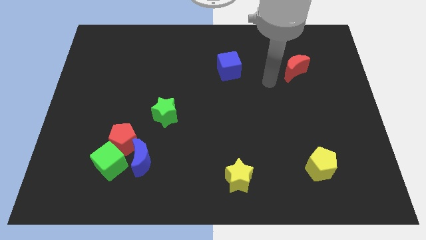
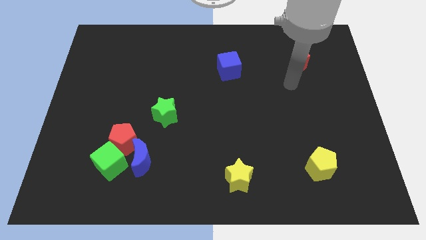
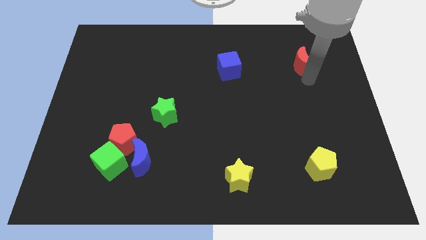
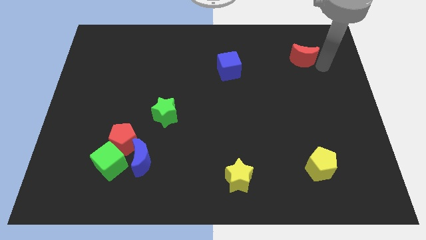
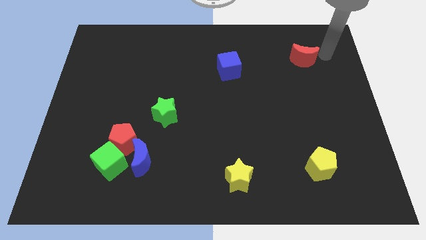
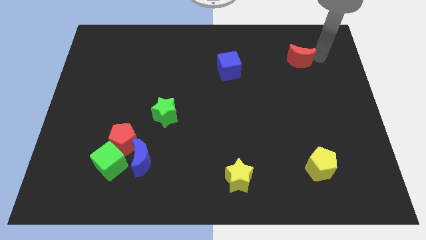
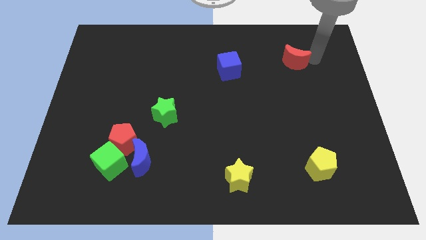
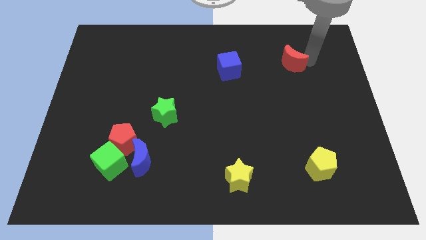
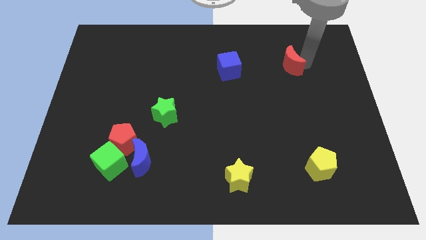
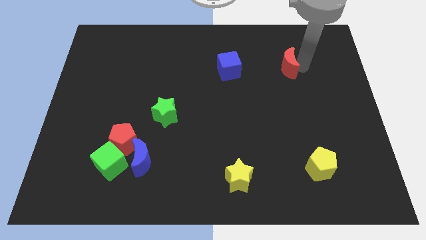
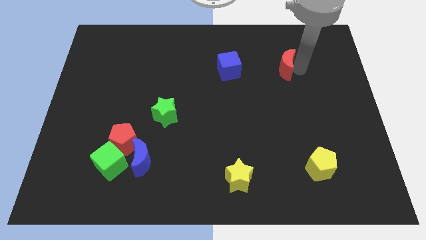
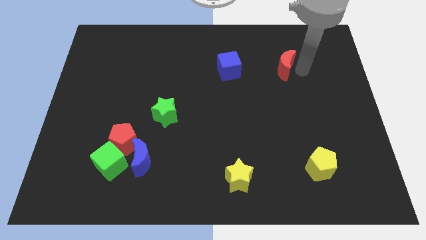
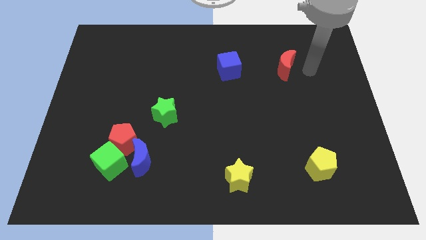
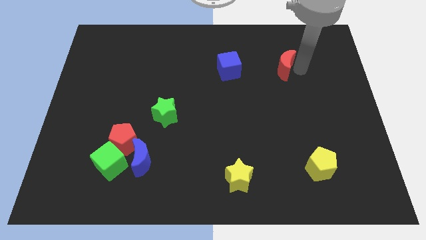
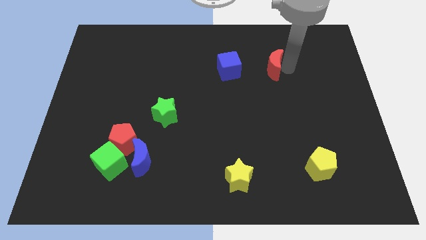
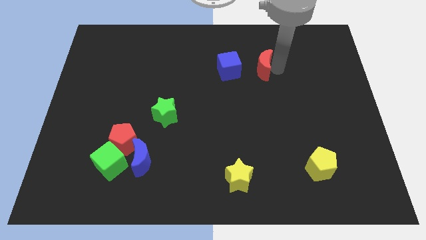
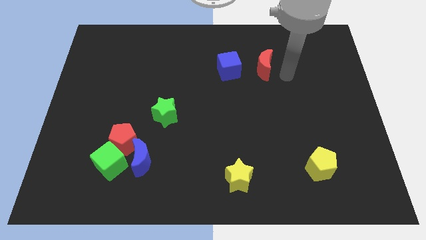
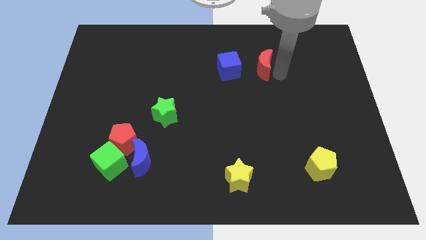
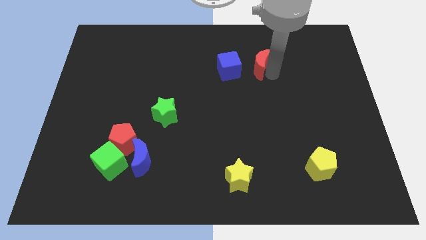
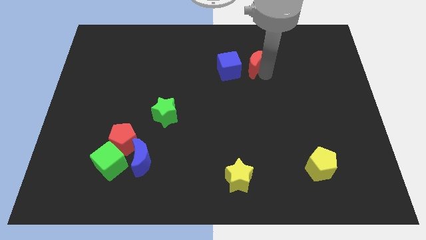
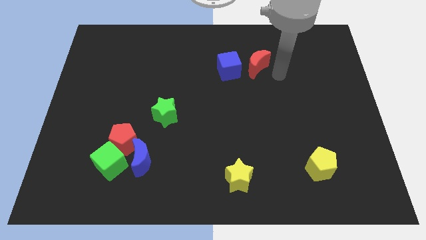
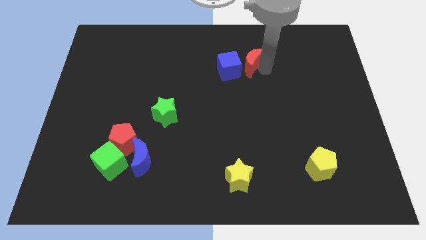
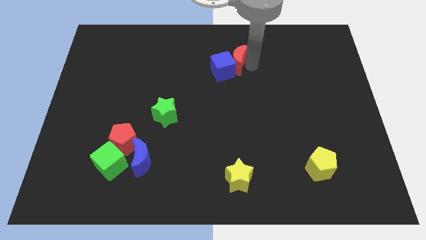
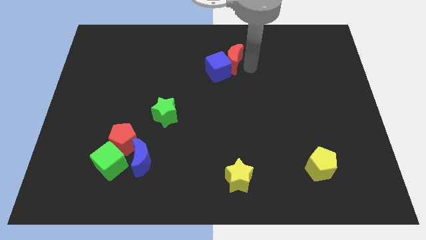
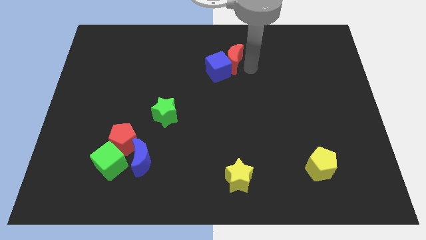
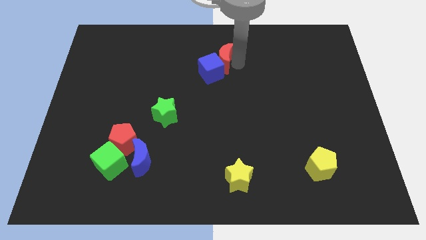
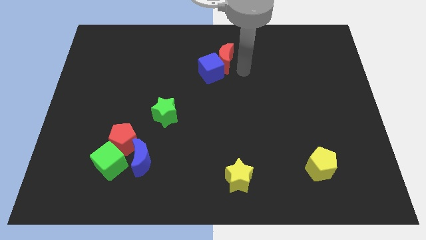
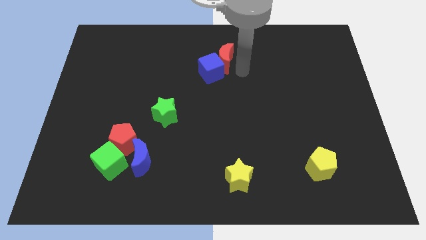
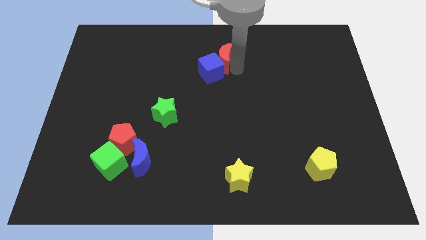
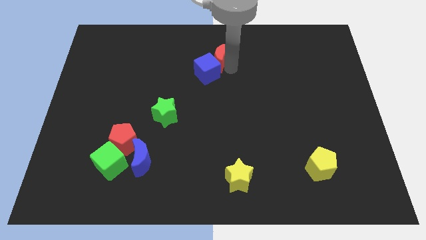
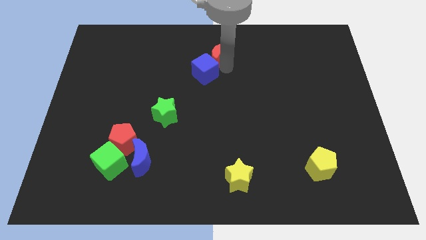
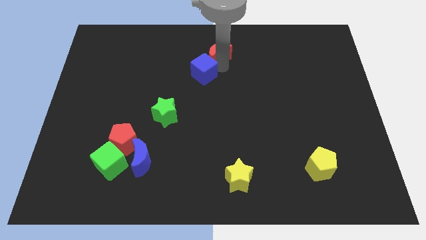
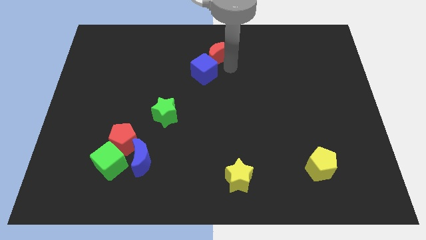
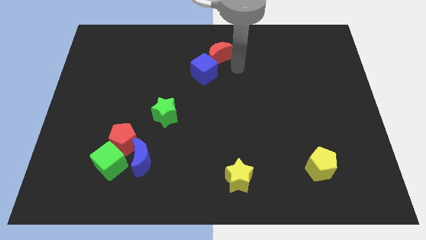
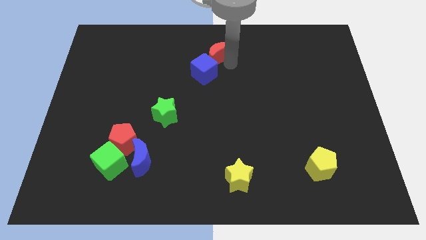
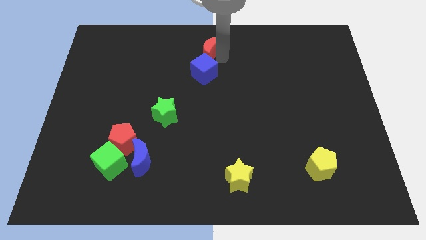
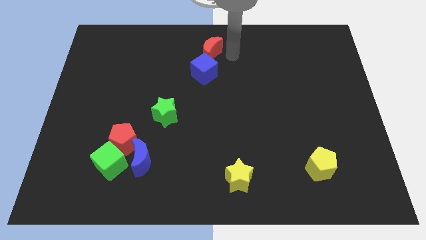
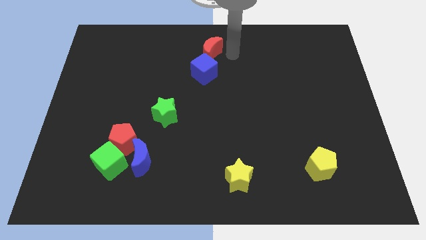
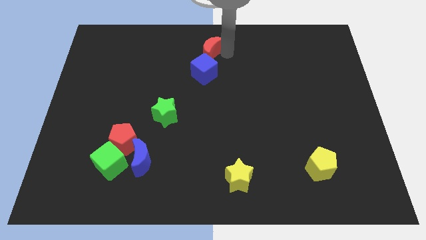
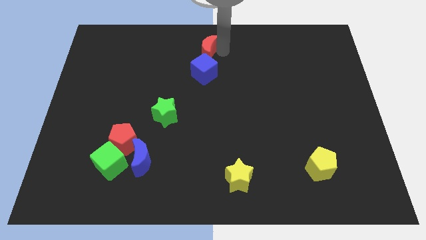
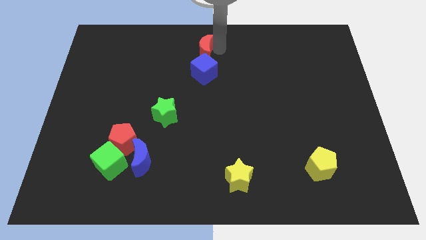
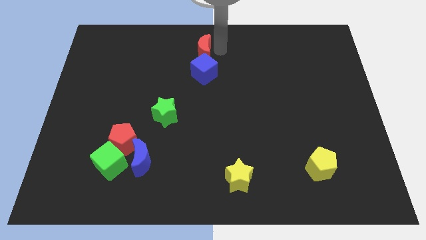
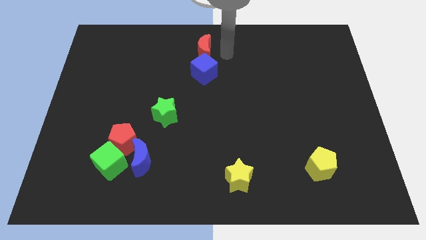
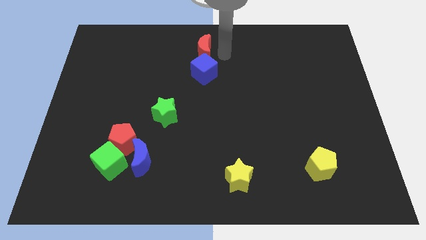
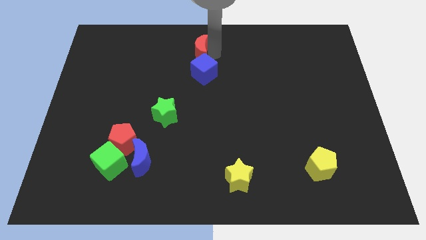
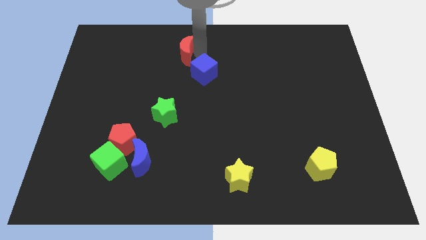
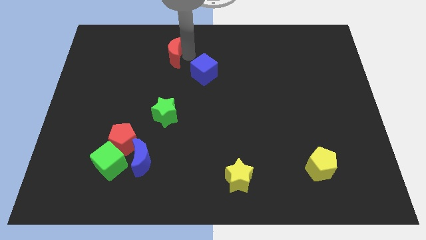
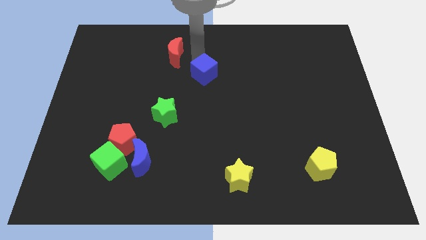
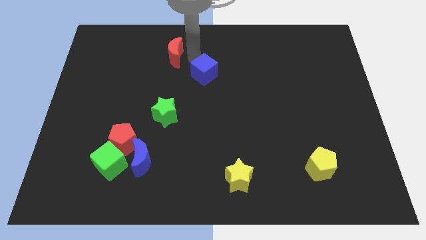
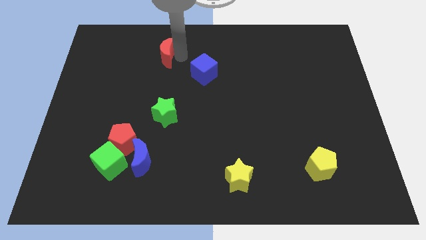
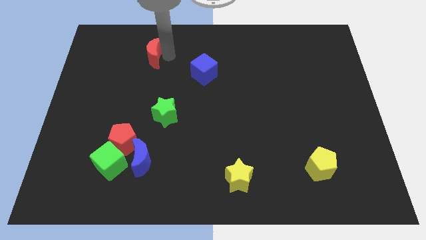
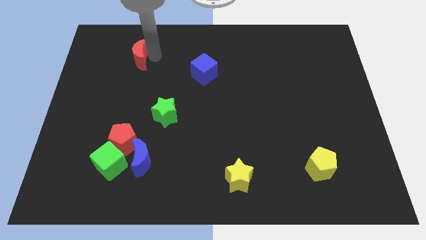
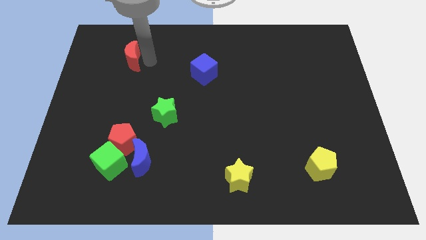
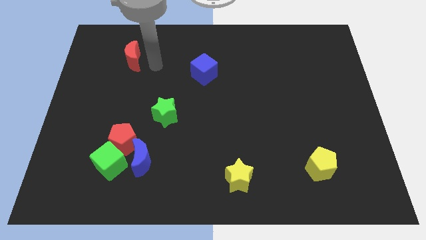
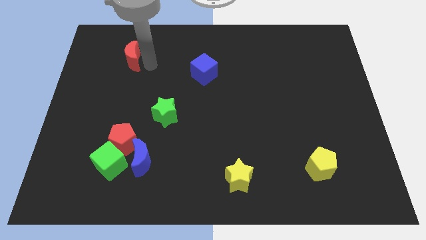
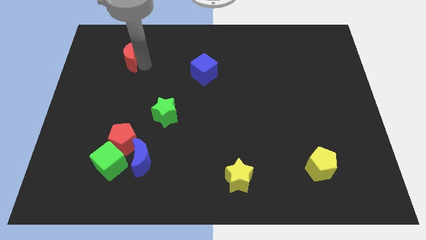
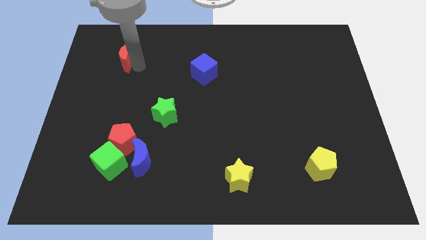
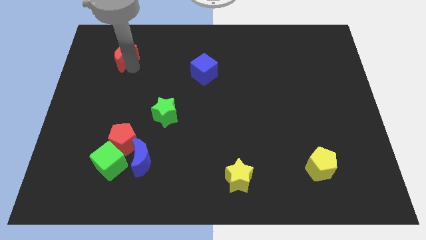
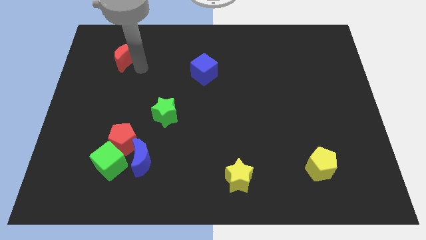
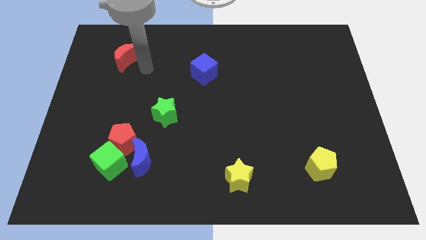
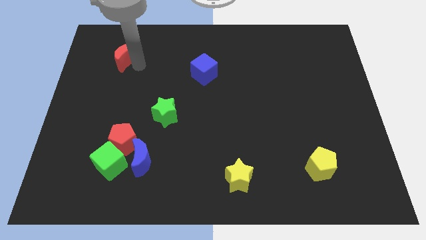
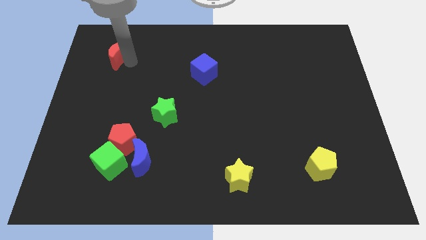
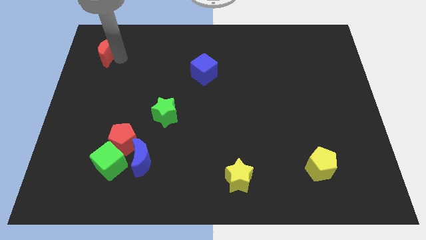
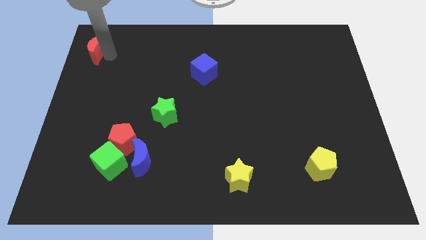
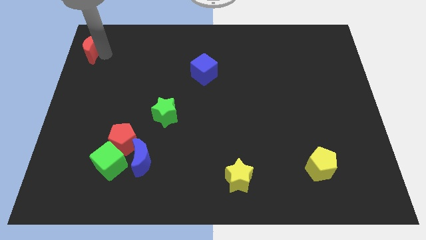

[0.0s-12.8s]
slide the red moon to the top left of the board
